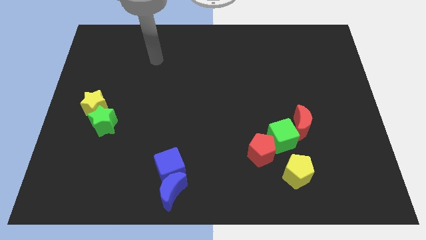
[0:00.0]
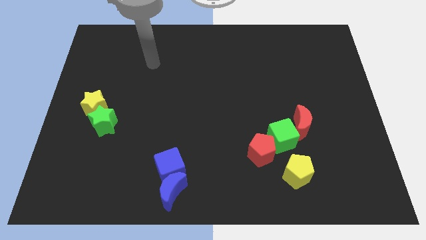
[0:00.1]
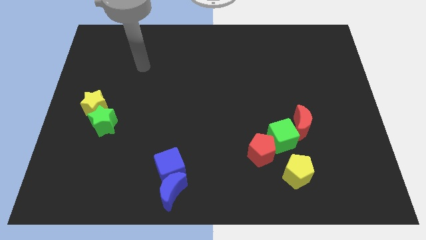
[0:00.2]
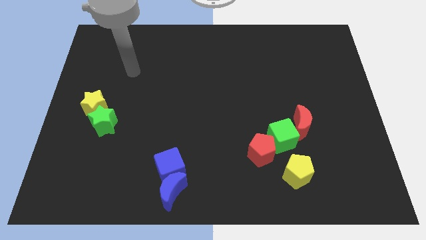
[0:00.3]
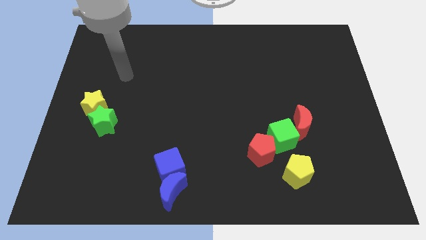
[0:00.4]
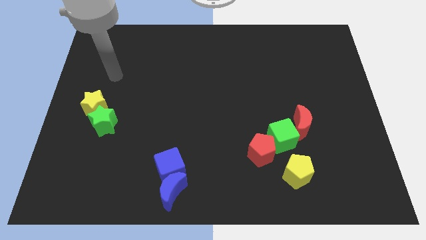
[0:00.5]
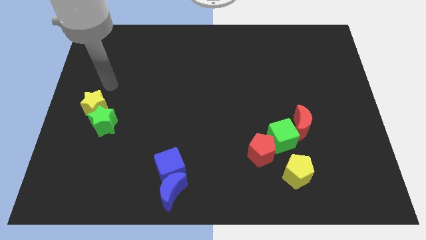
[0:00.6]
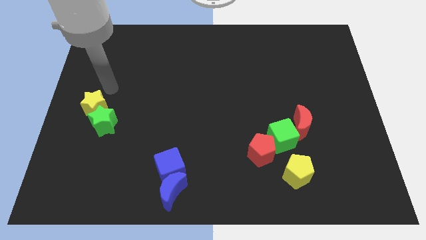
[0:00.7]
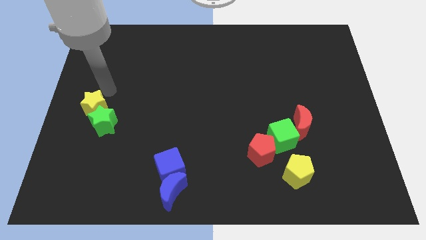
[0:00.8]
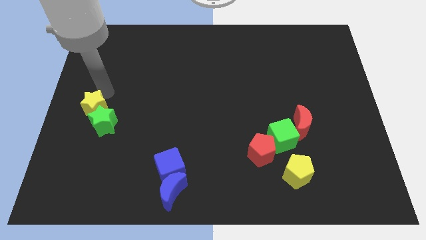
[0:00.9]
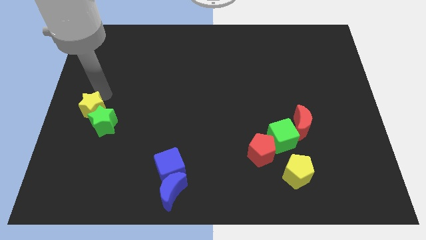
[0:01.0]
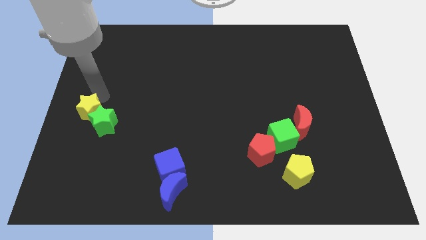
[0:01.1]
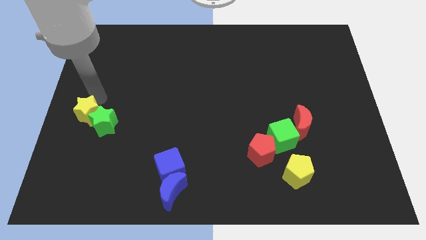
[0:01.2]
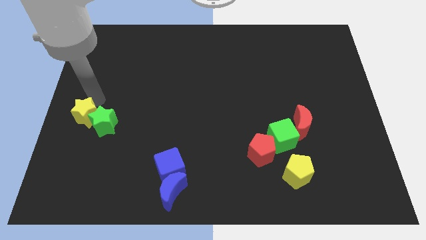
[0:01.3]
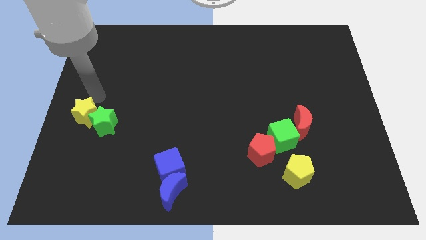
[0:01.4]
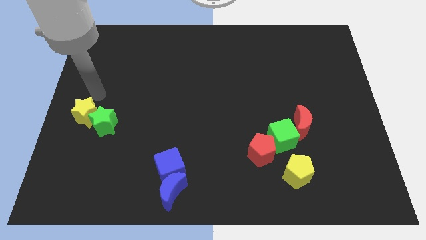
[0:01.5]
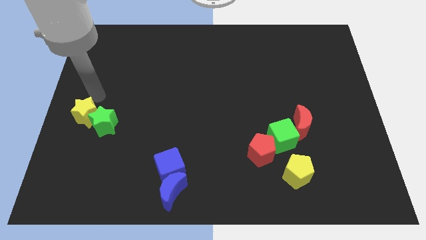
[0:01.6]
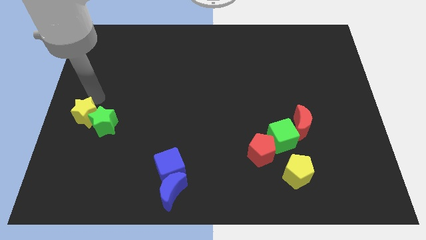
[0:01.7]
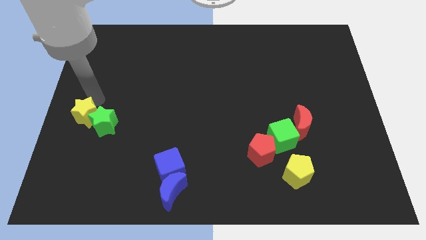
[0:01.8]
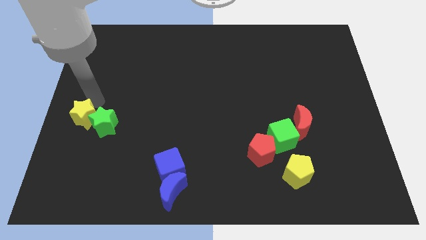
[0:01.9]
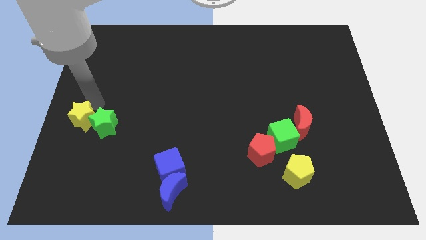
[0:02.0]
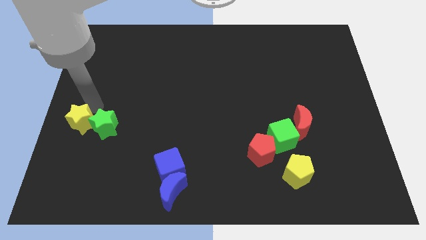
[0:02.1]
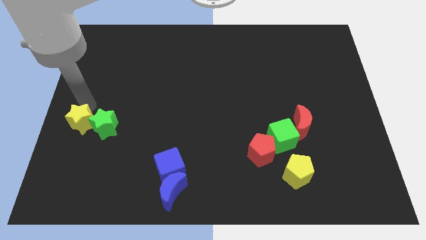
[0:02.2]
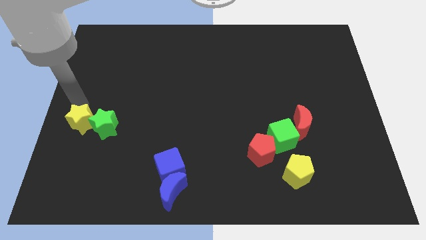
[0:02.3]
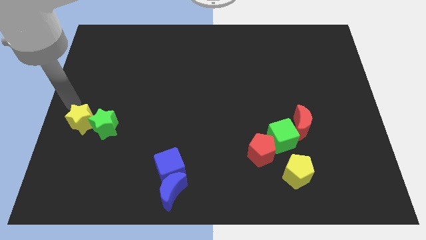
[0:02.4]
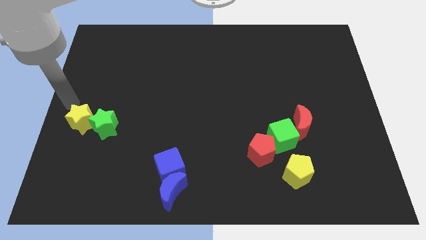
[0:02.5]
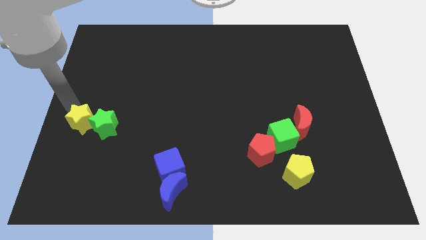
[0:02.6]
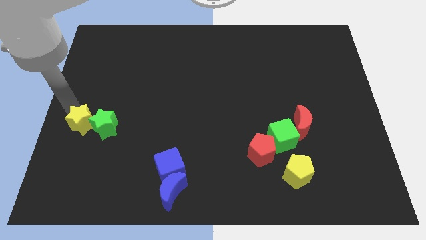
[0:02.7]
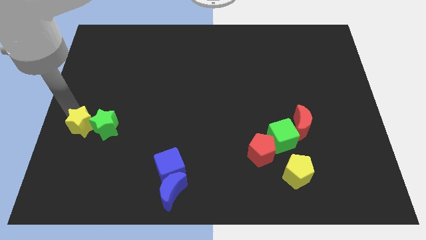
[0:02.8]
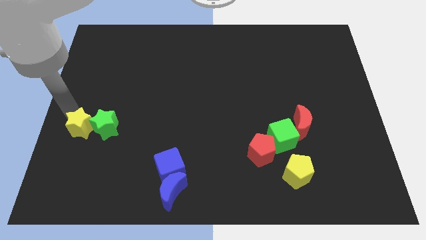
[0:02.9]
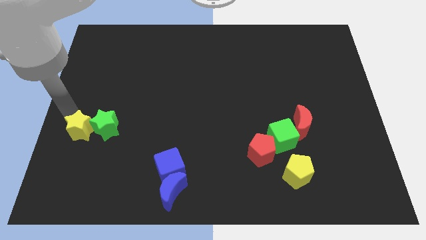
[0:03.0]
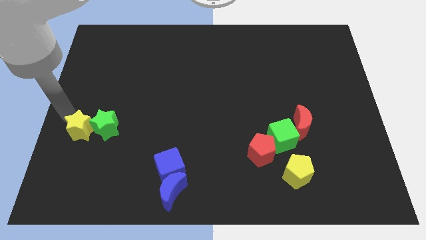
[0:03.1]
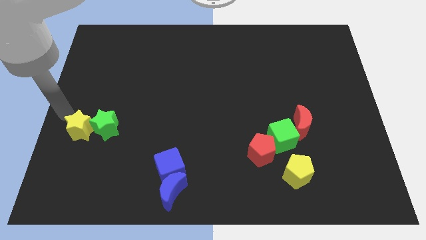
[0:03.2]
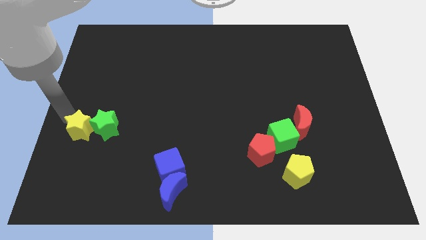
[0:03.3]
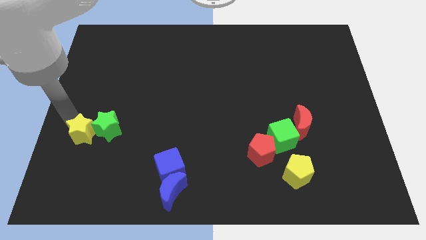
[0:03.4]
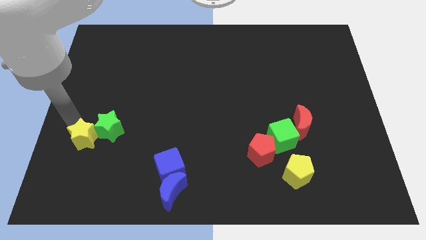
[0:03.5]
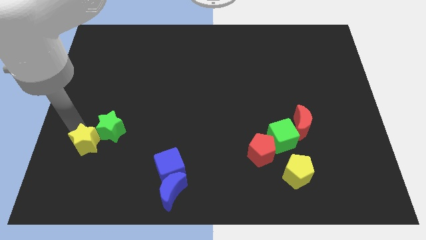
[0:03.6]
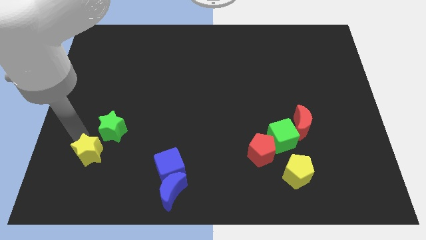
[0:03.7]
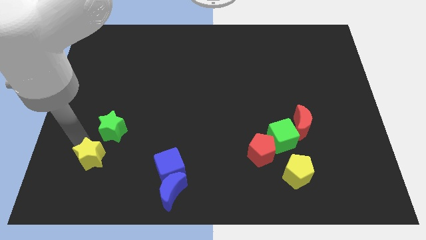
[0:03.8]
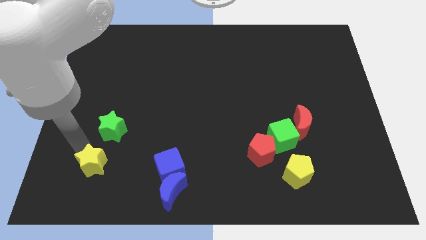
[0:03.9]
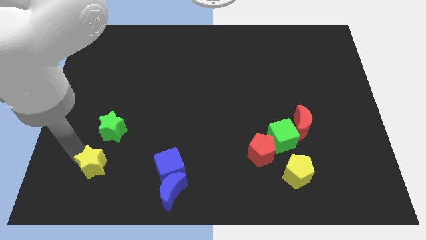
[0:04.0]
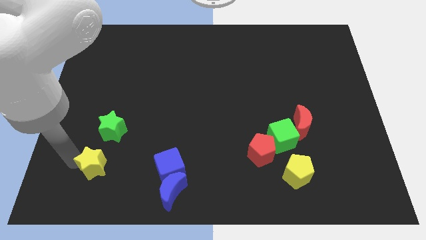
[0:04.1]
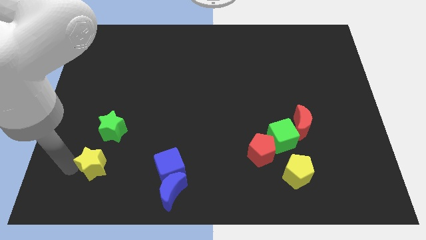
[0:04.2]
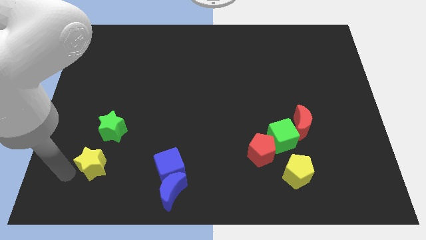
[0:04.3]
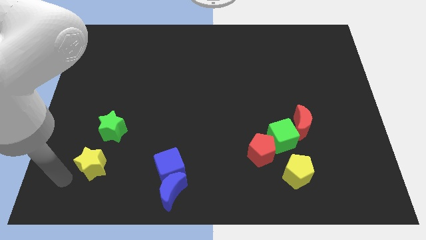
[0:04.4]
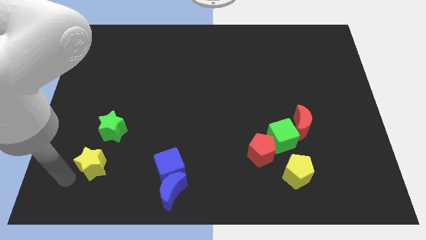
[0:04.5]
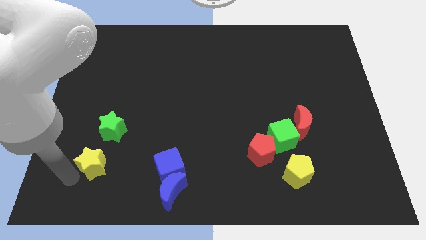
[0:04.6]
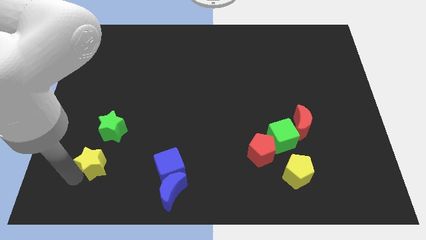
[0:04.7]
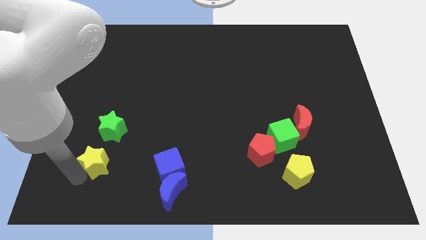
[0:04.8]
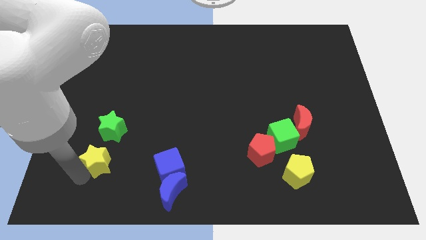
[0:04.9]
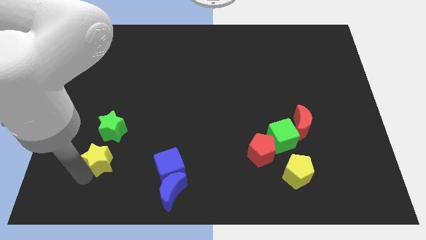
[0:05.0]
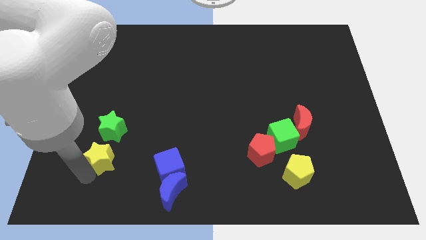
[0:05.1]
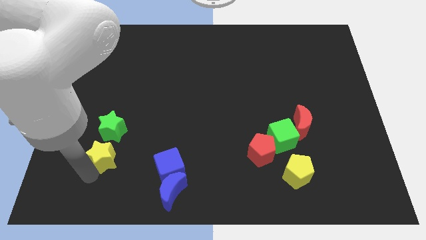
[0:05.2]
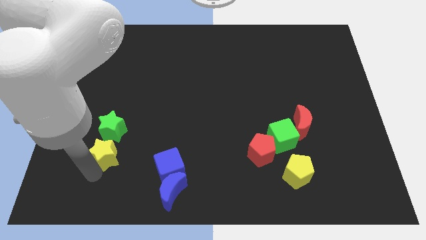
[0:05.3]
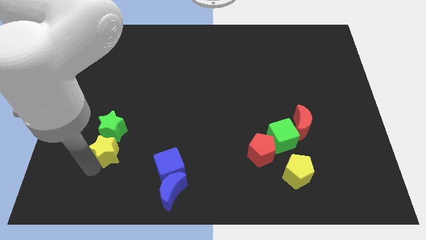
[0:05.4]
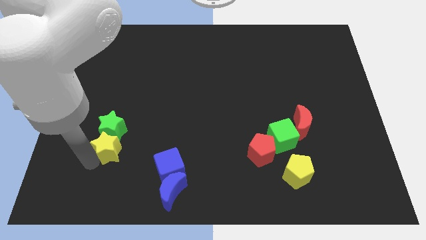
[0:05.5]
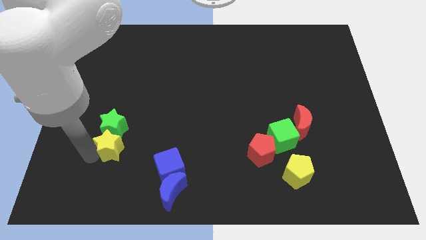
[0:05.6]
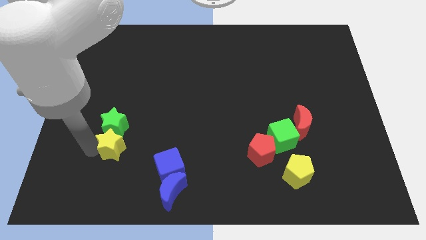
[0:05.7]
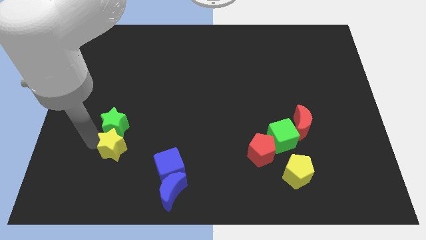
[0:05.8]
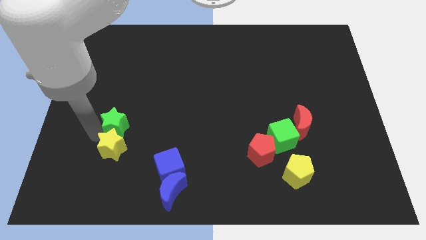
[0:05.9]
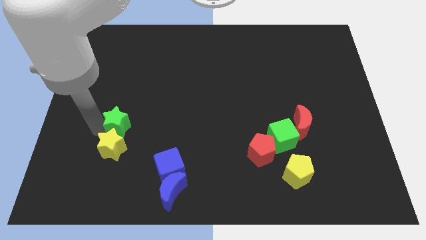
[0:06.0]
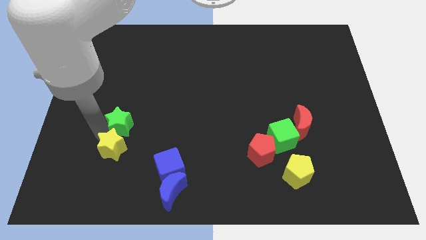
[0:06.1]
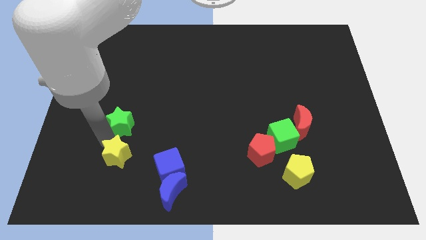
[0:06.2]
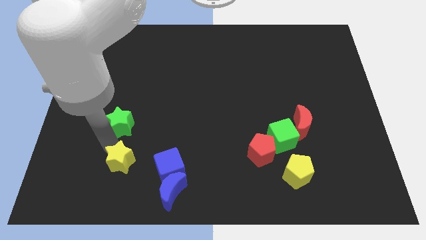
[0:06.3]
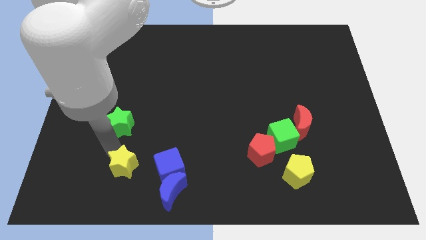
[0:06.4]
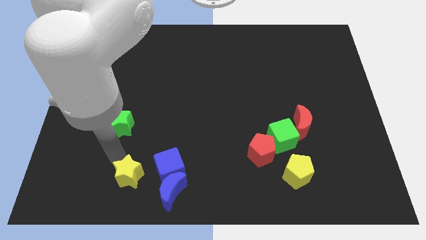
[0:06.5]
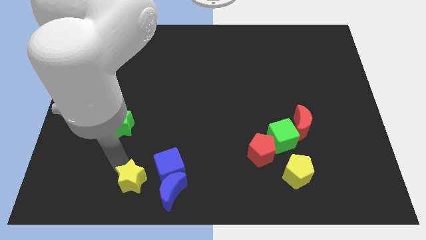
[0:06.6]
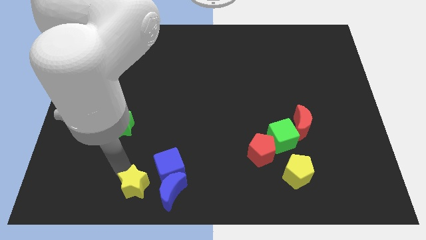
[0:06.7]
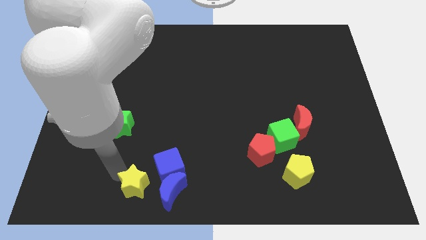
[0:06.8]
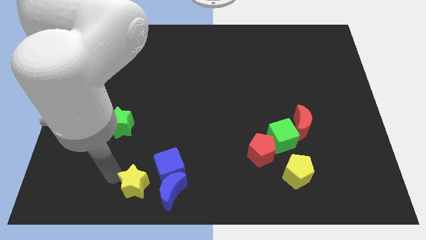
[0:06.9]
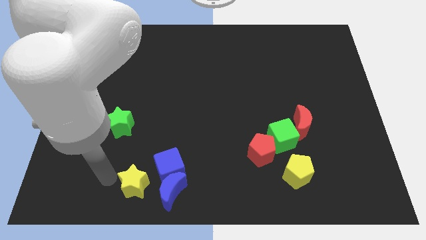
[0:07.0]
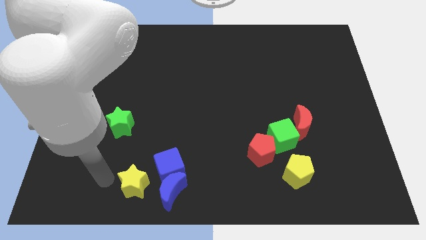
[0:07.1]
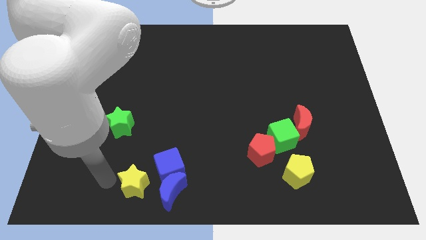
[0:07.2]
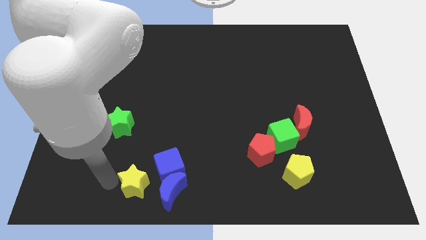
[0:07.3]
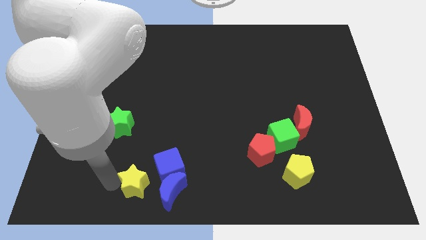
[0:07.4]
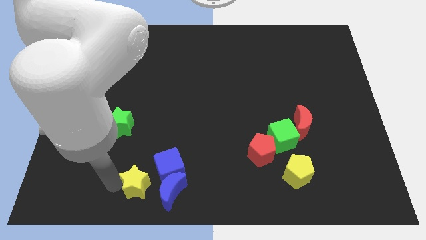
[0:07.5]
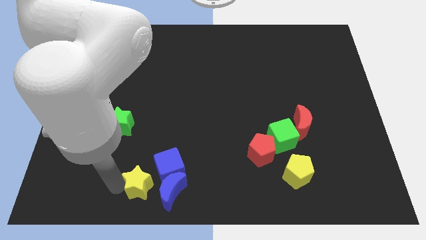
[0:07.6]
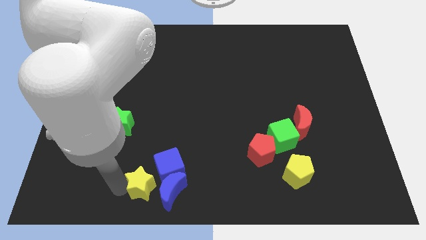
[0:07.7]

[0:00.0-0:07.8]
move the yellow star close to the blue moon
